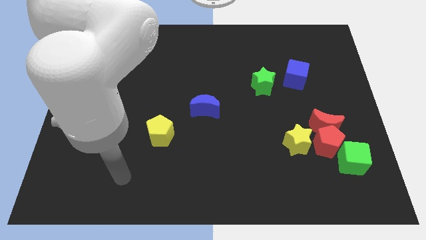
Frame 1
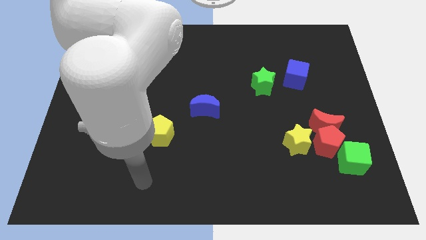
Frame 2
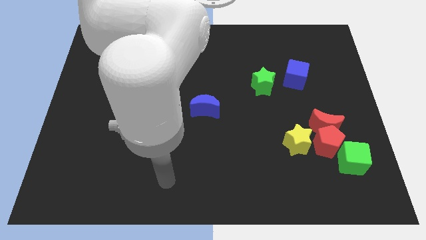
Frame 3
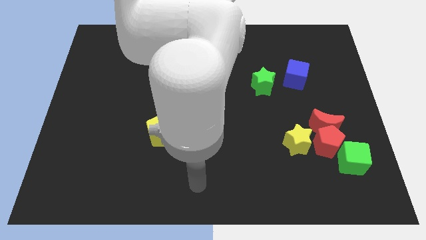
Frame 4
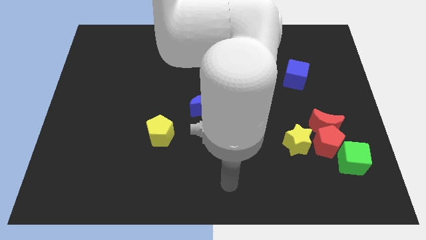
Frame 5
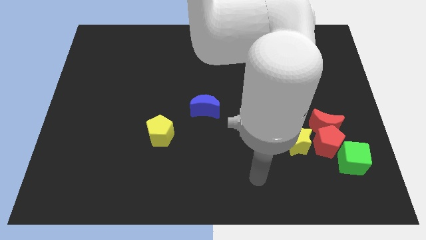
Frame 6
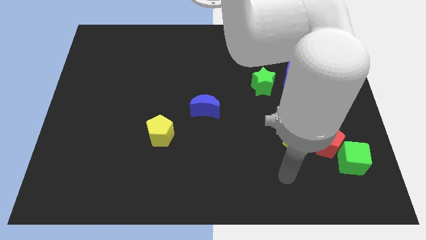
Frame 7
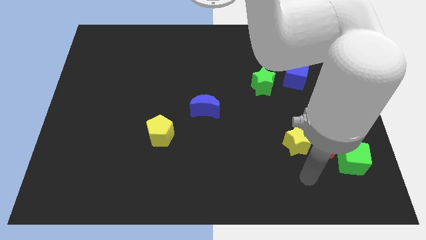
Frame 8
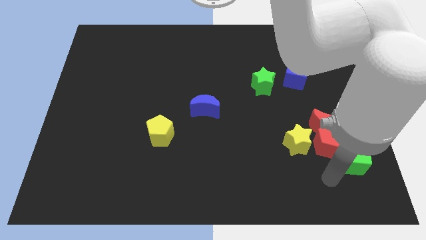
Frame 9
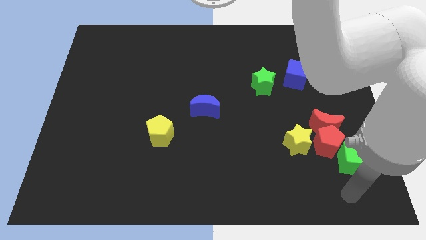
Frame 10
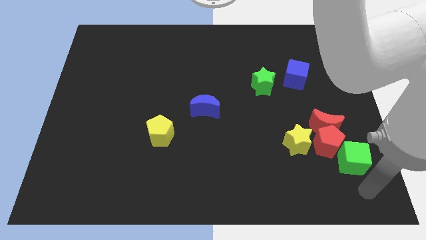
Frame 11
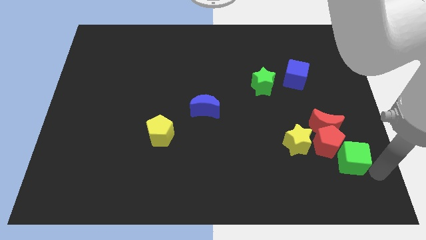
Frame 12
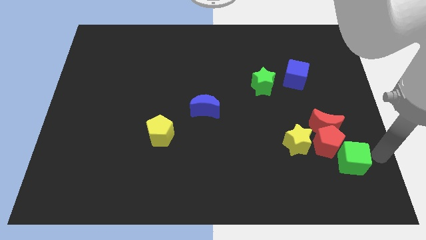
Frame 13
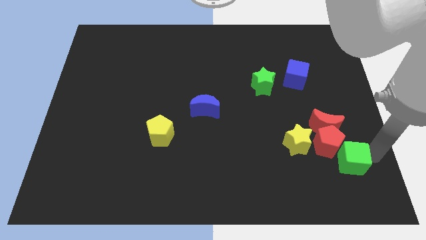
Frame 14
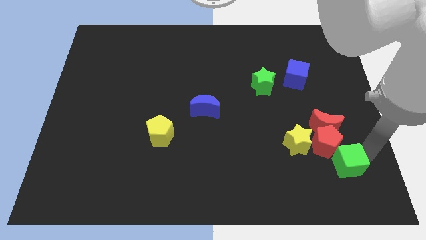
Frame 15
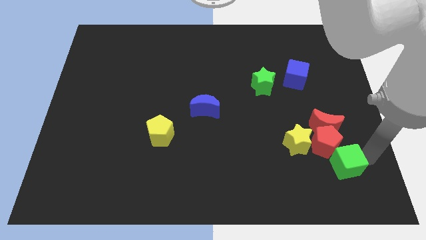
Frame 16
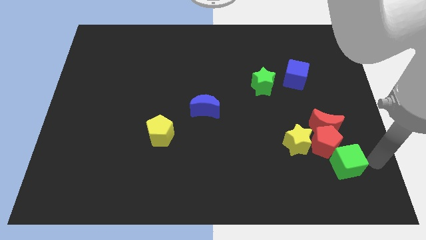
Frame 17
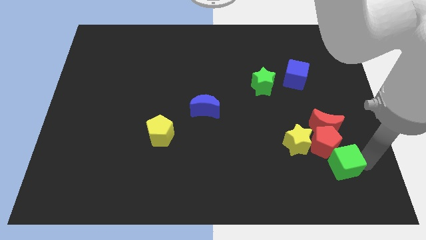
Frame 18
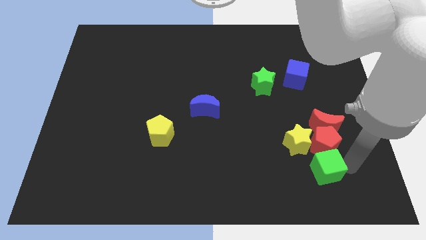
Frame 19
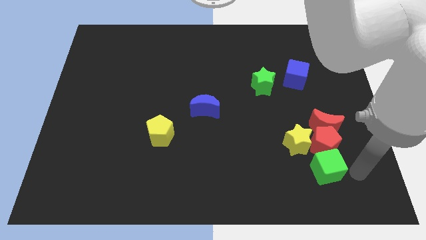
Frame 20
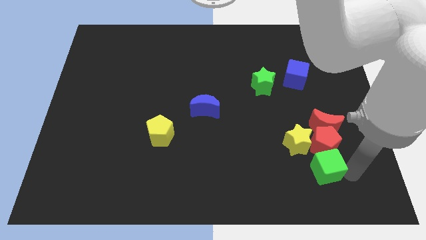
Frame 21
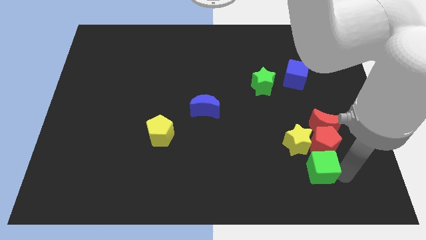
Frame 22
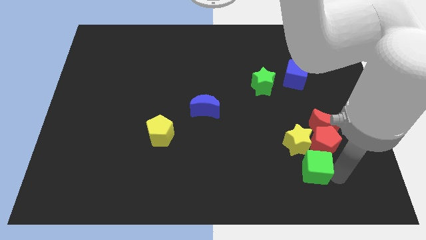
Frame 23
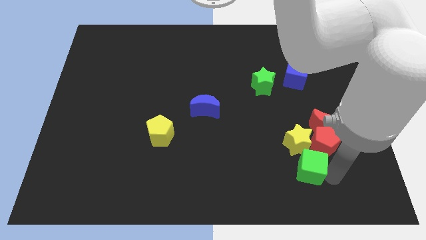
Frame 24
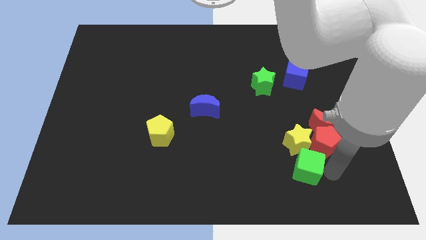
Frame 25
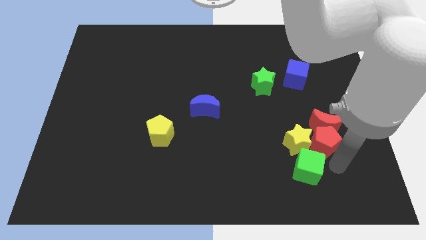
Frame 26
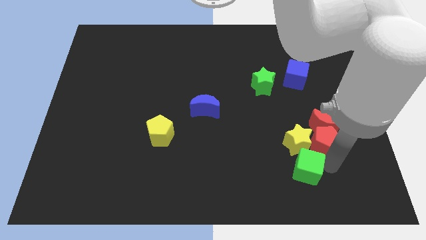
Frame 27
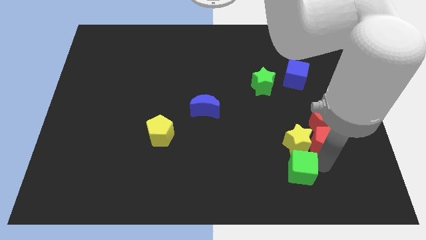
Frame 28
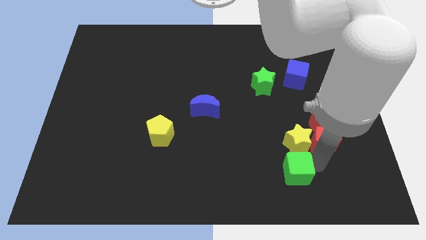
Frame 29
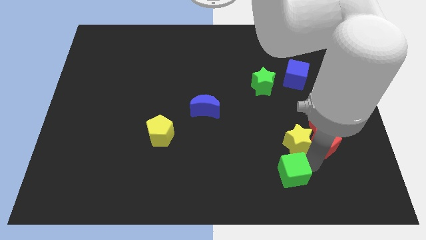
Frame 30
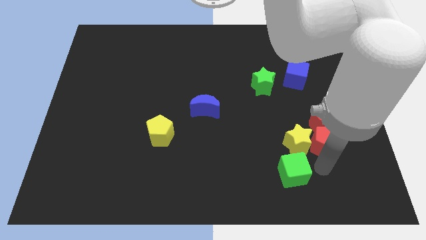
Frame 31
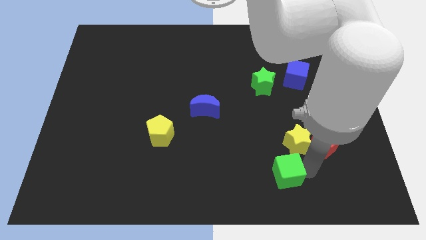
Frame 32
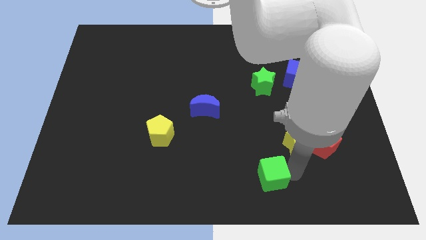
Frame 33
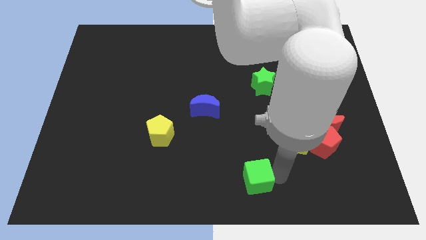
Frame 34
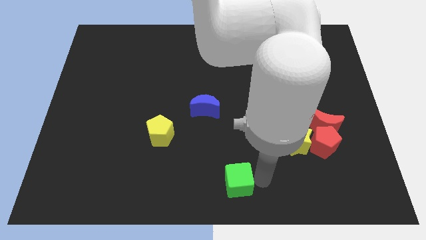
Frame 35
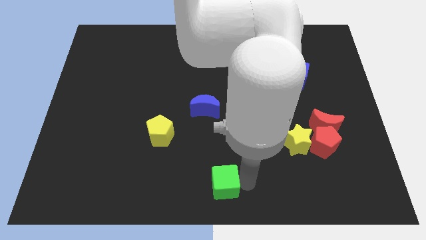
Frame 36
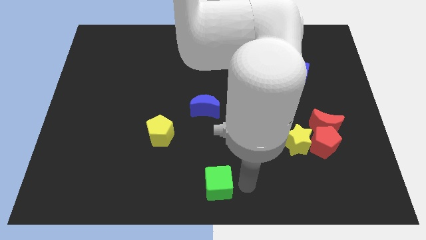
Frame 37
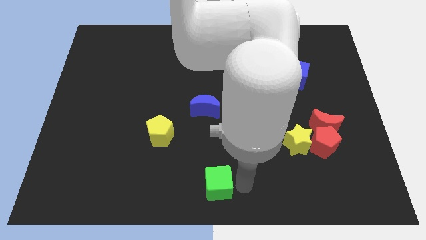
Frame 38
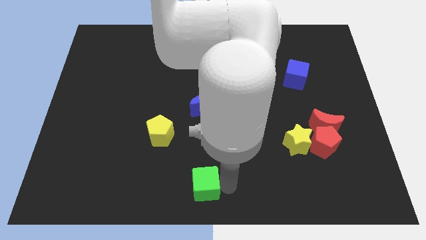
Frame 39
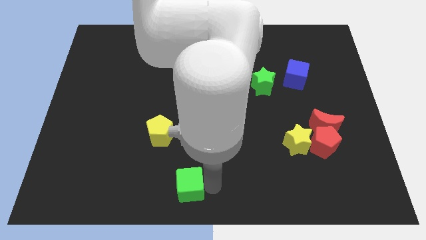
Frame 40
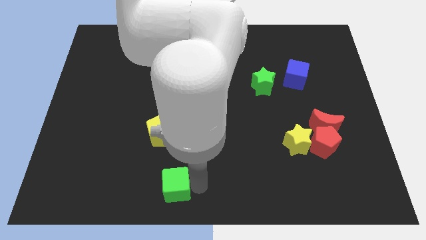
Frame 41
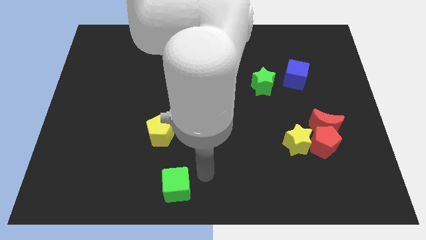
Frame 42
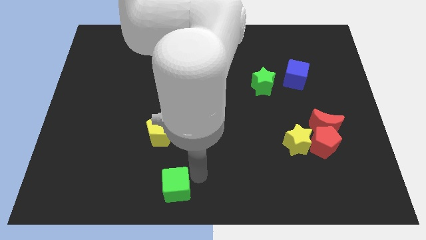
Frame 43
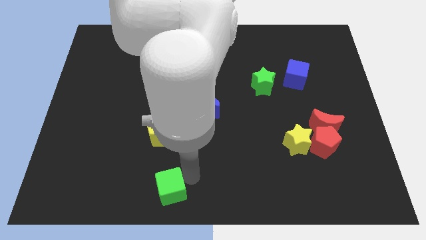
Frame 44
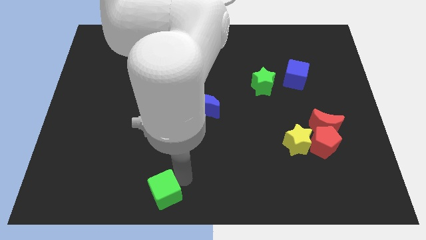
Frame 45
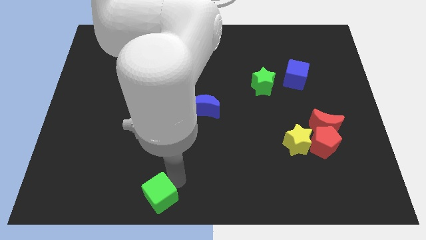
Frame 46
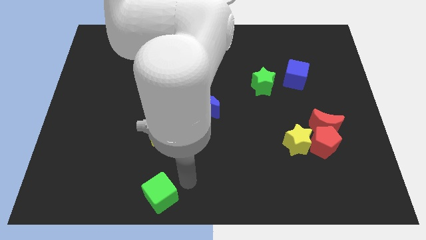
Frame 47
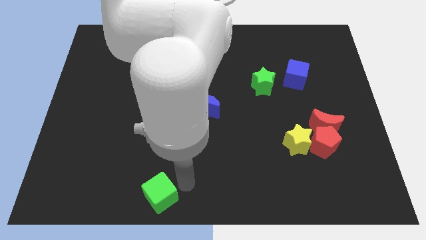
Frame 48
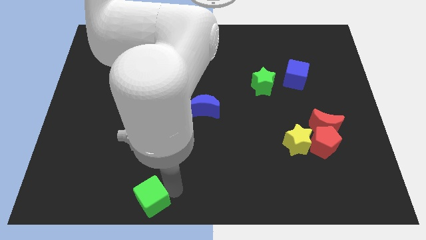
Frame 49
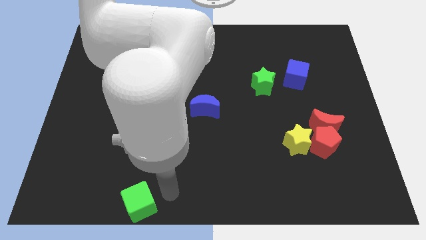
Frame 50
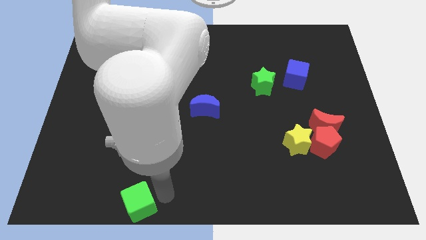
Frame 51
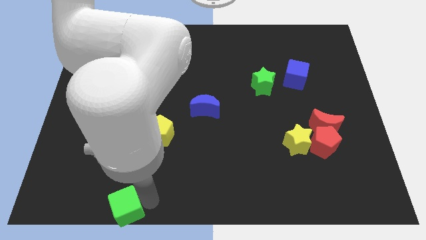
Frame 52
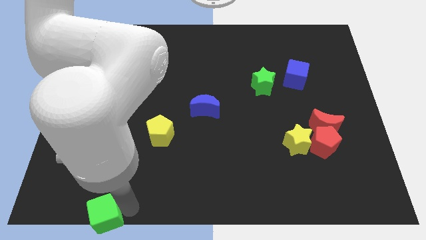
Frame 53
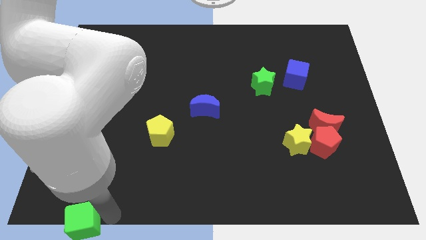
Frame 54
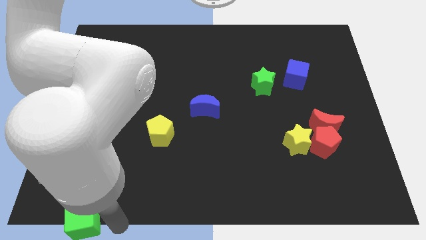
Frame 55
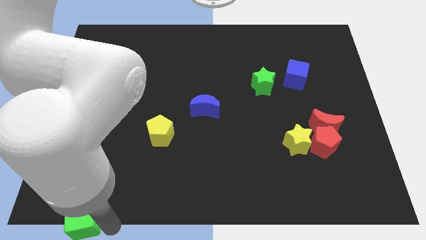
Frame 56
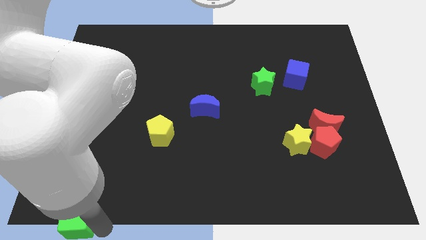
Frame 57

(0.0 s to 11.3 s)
put the green cube to the bottom left of the board
